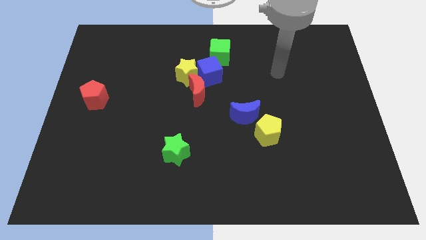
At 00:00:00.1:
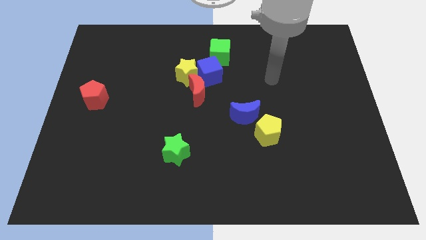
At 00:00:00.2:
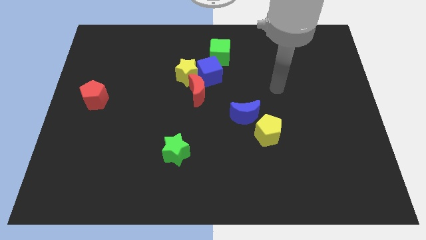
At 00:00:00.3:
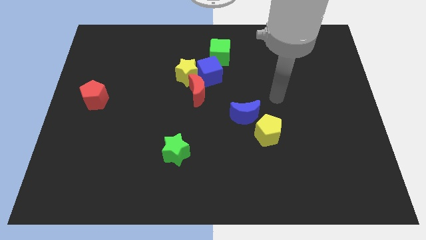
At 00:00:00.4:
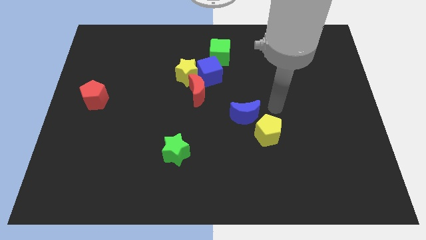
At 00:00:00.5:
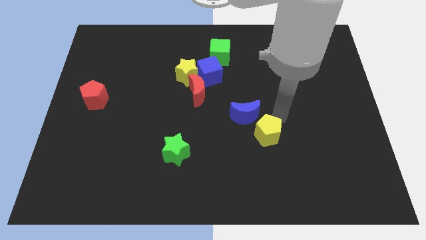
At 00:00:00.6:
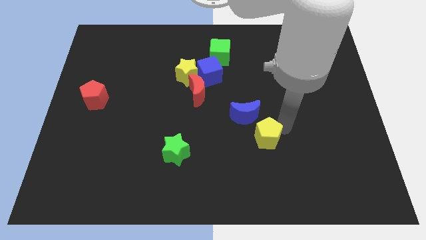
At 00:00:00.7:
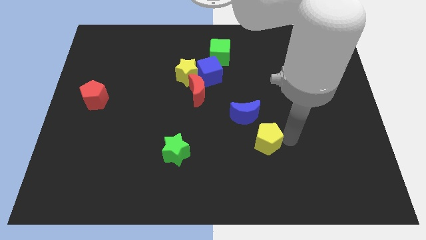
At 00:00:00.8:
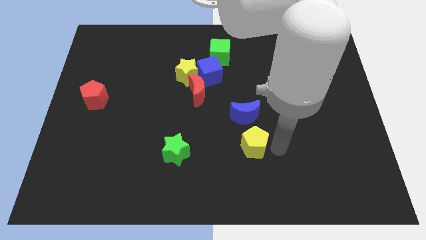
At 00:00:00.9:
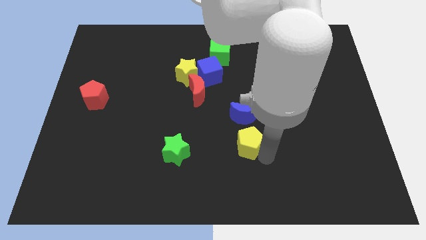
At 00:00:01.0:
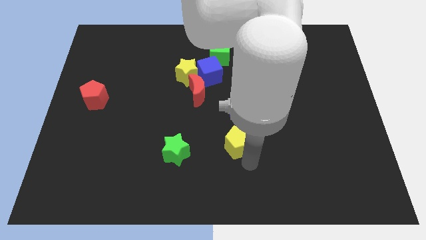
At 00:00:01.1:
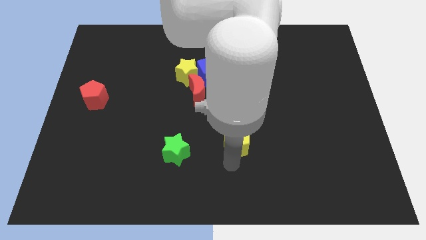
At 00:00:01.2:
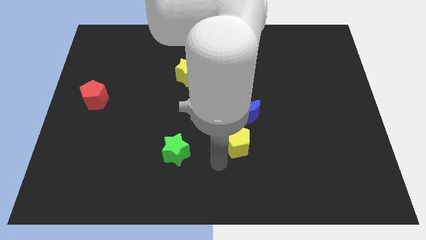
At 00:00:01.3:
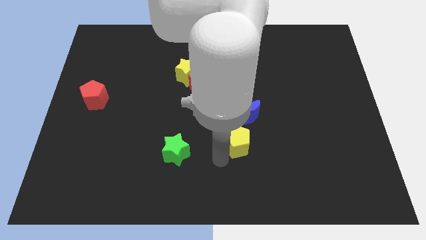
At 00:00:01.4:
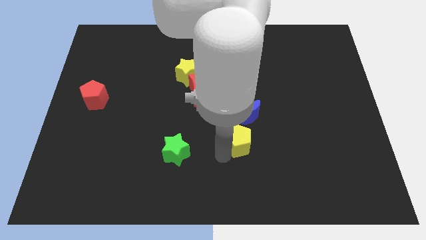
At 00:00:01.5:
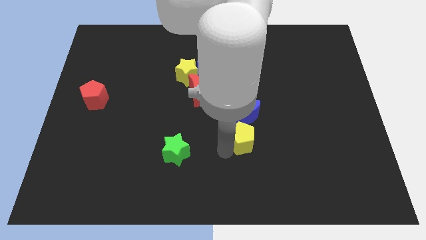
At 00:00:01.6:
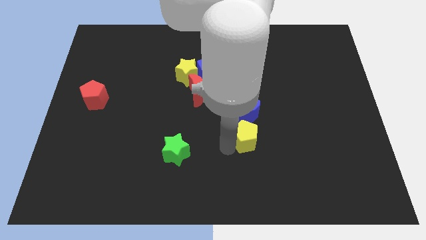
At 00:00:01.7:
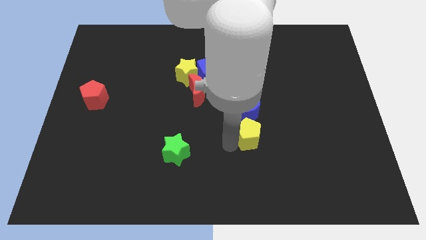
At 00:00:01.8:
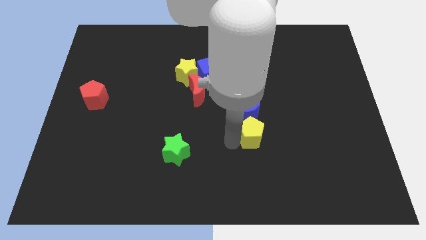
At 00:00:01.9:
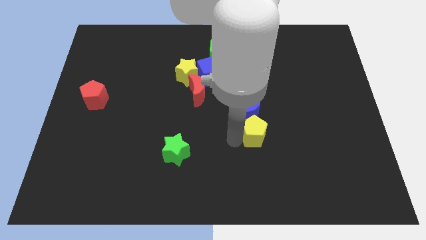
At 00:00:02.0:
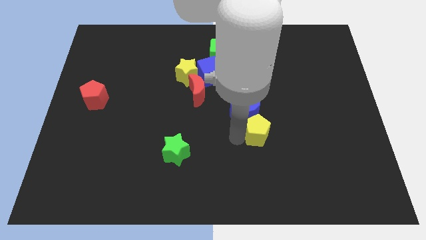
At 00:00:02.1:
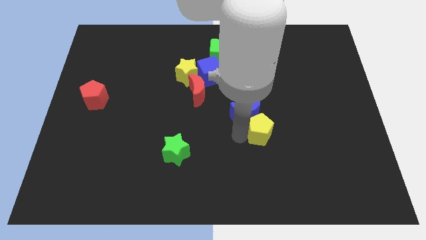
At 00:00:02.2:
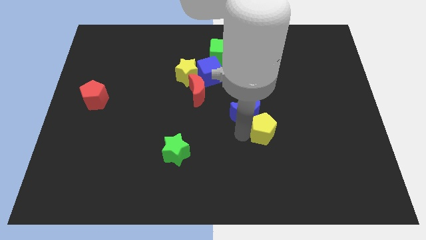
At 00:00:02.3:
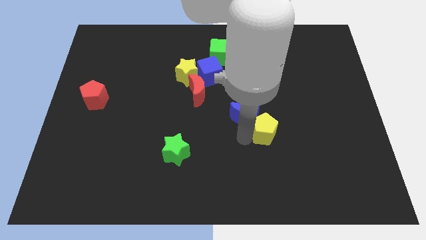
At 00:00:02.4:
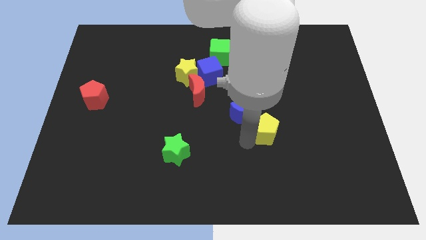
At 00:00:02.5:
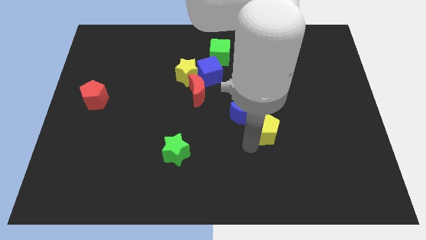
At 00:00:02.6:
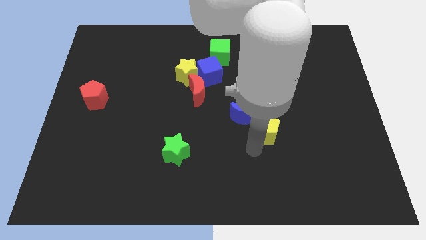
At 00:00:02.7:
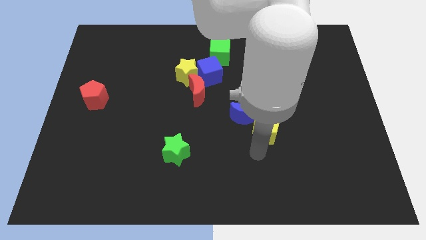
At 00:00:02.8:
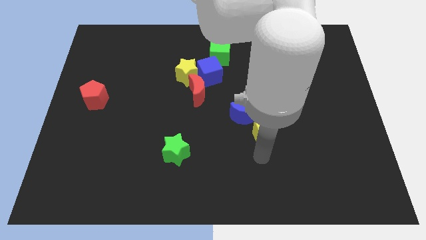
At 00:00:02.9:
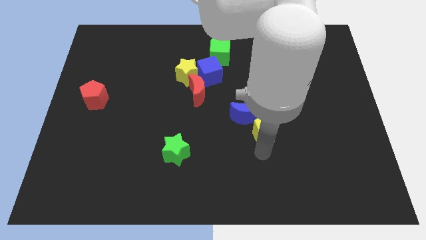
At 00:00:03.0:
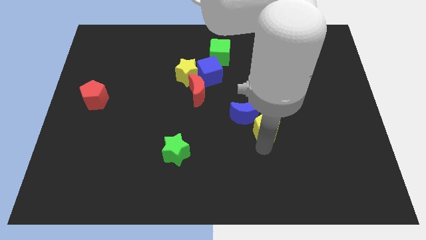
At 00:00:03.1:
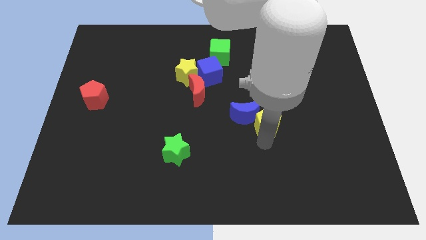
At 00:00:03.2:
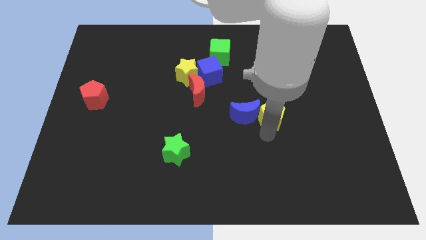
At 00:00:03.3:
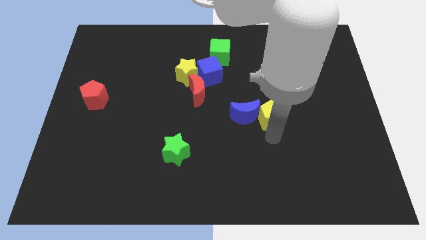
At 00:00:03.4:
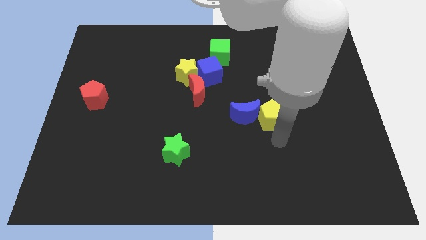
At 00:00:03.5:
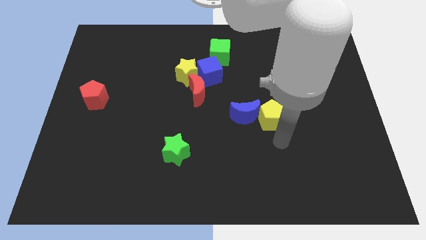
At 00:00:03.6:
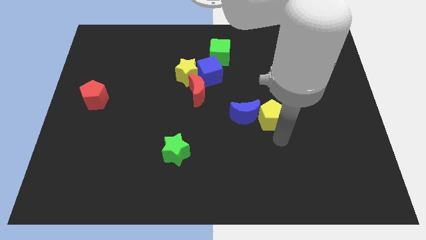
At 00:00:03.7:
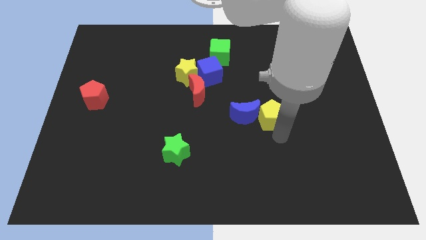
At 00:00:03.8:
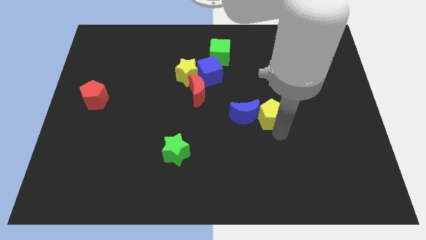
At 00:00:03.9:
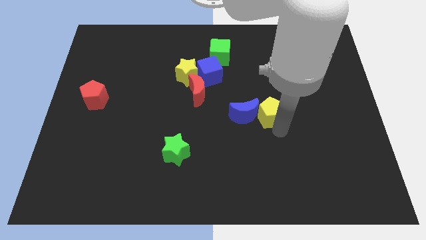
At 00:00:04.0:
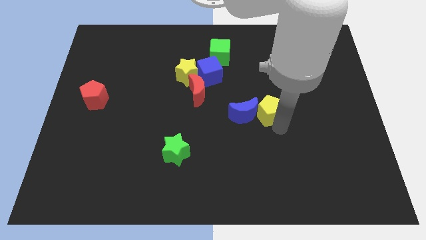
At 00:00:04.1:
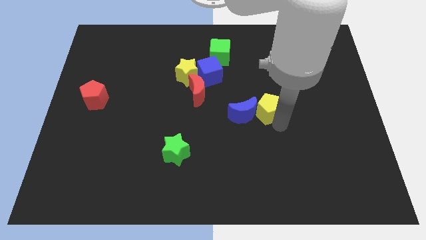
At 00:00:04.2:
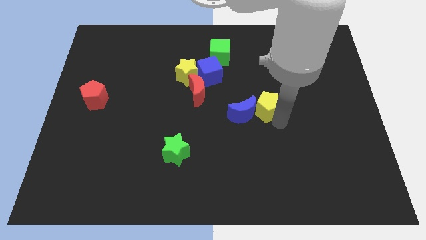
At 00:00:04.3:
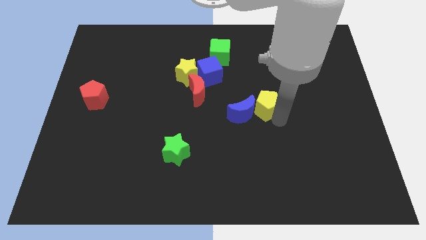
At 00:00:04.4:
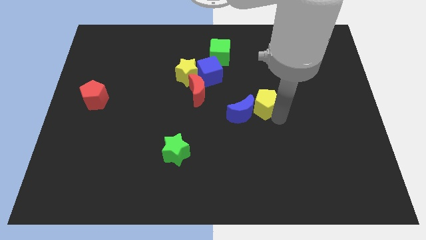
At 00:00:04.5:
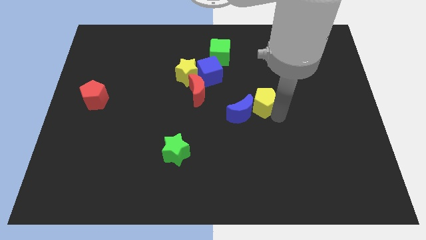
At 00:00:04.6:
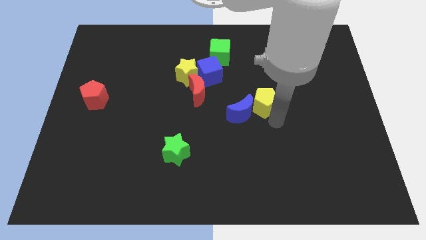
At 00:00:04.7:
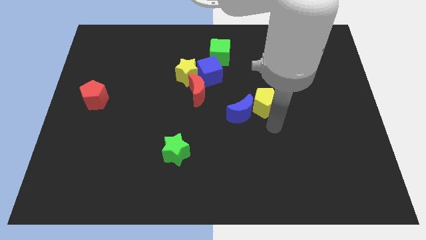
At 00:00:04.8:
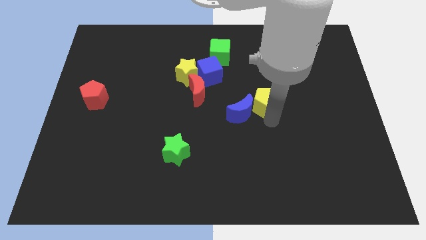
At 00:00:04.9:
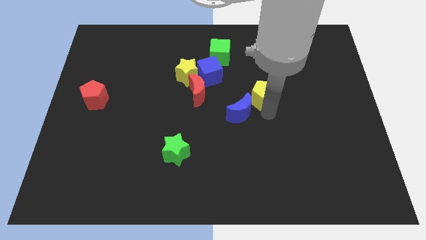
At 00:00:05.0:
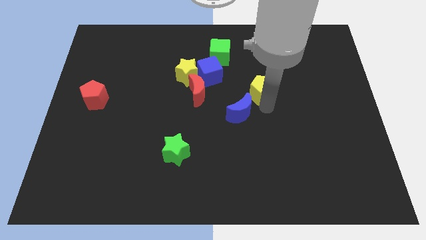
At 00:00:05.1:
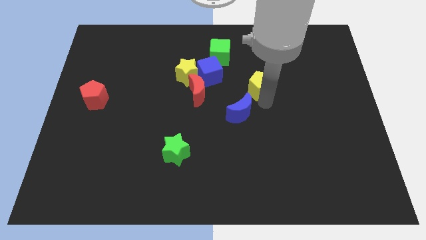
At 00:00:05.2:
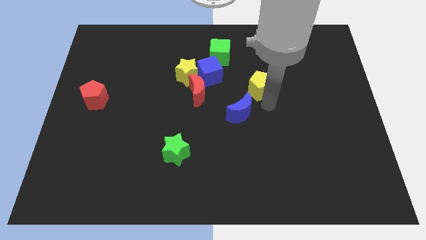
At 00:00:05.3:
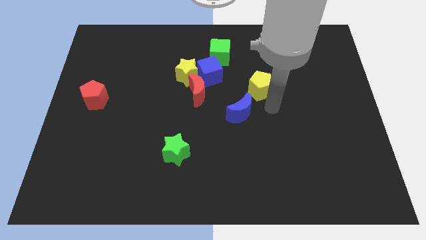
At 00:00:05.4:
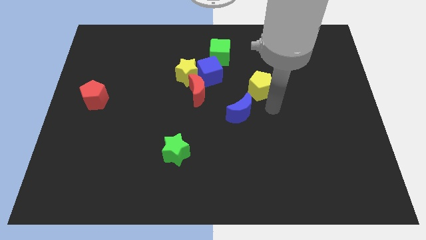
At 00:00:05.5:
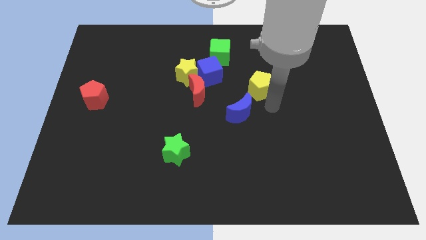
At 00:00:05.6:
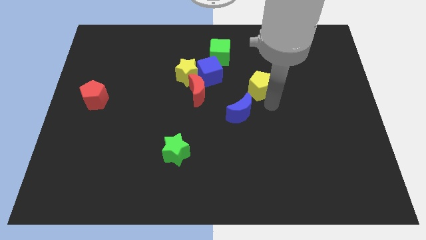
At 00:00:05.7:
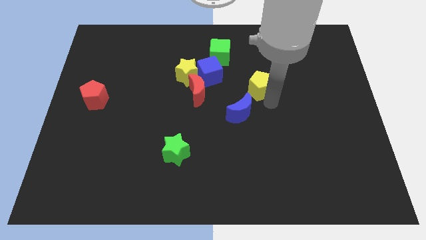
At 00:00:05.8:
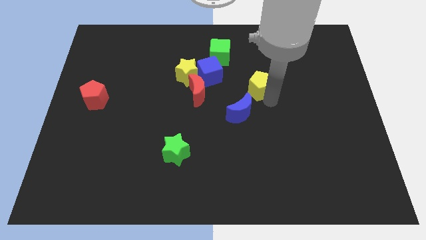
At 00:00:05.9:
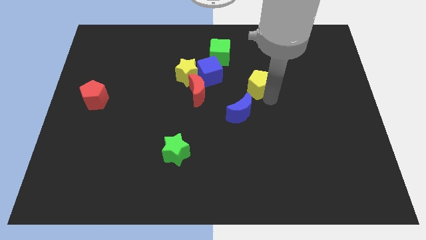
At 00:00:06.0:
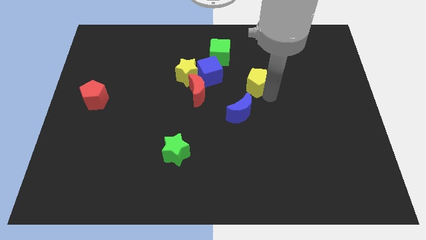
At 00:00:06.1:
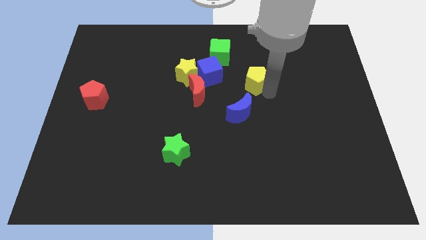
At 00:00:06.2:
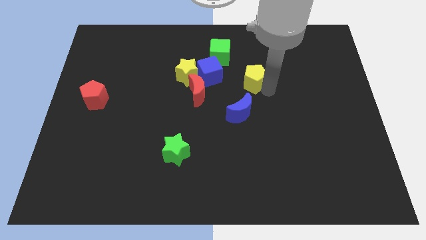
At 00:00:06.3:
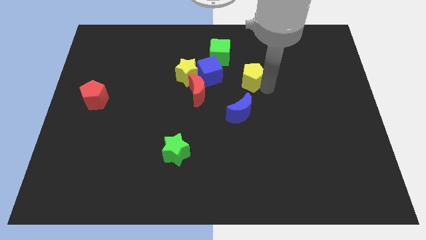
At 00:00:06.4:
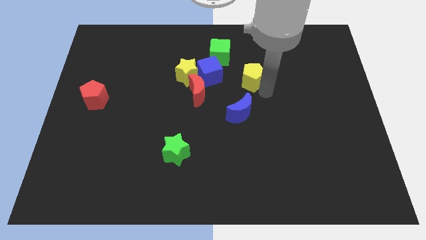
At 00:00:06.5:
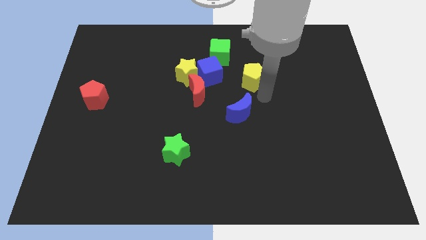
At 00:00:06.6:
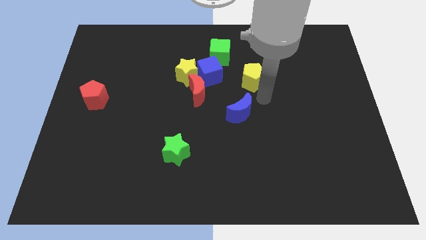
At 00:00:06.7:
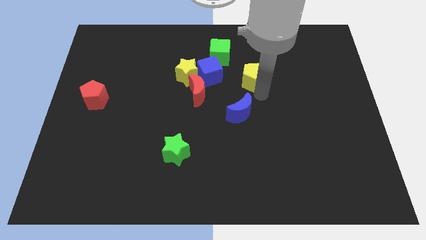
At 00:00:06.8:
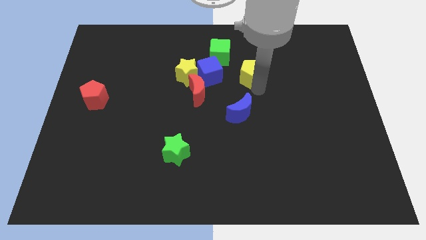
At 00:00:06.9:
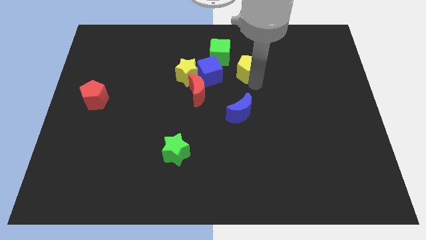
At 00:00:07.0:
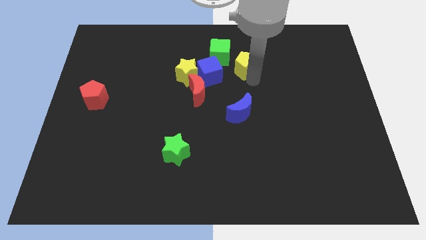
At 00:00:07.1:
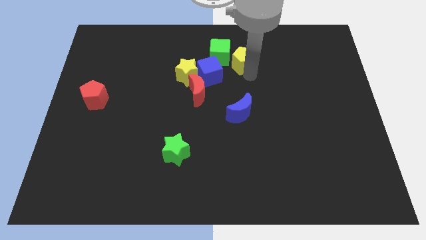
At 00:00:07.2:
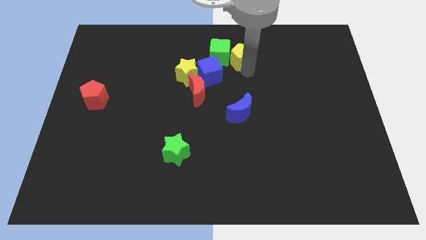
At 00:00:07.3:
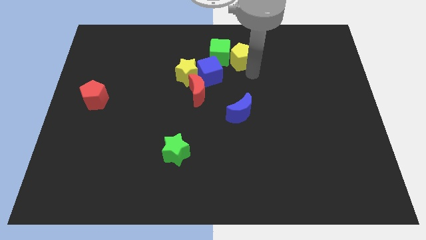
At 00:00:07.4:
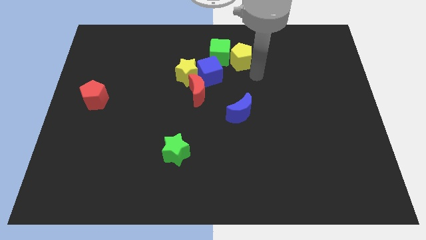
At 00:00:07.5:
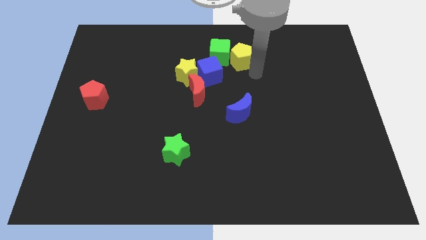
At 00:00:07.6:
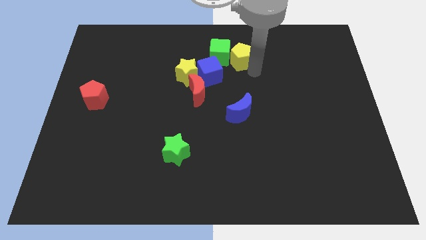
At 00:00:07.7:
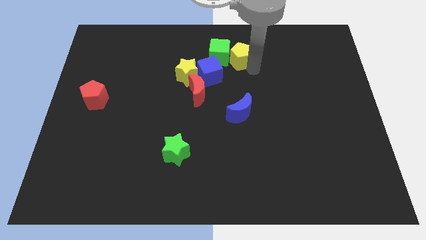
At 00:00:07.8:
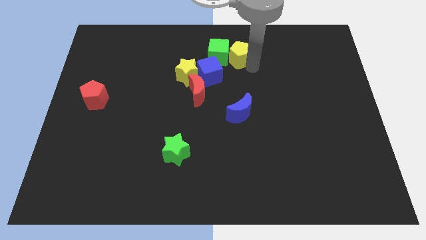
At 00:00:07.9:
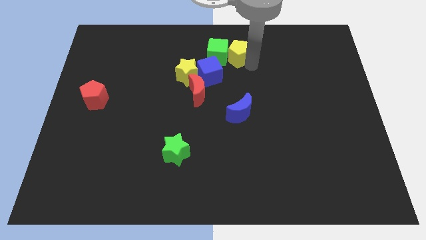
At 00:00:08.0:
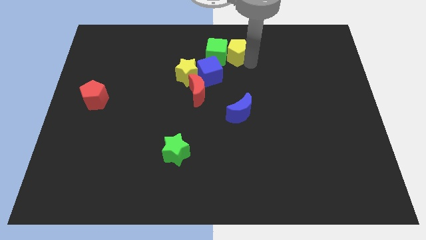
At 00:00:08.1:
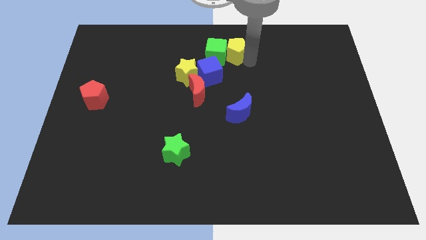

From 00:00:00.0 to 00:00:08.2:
put the yellow pentagon to the top
